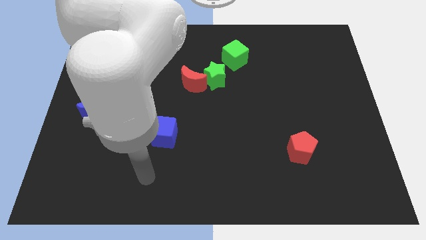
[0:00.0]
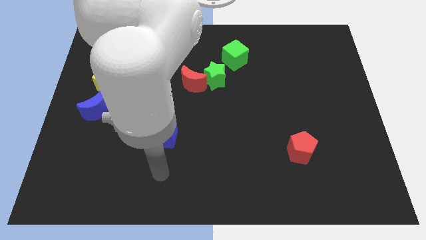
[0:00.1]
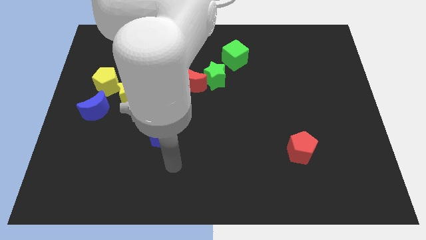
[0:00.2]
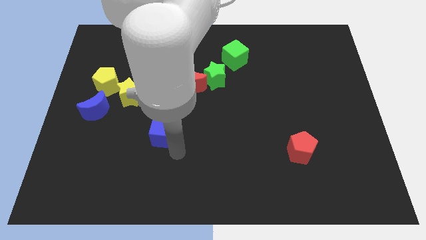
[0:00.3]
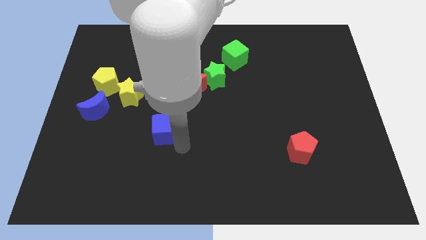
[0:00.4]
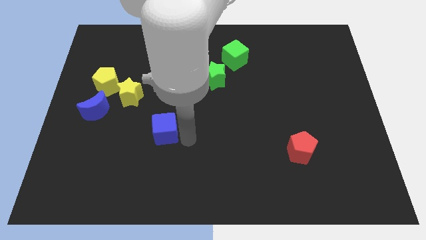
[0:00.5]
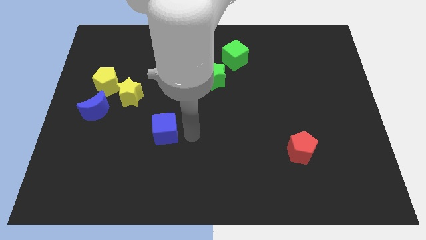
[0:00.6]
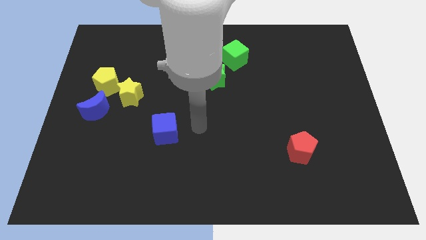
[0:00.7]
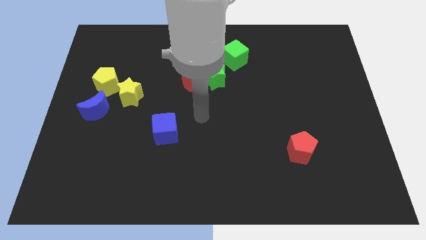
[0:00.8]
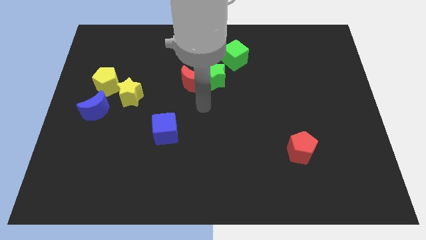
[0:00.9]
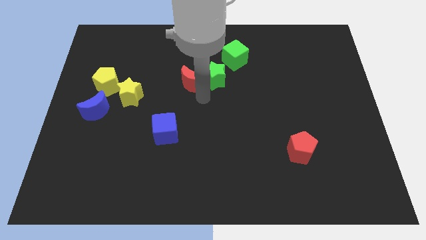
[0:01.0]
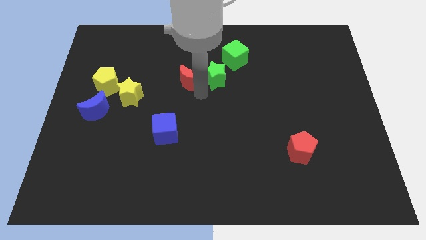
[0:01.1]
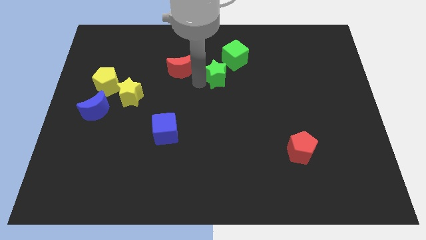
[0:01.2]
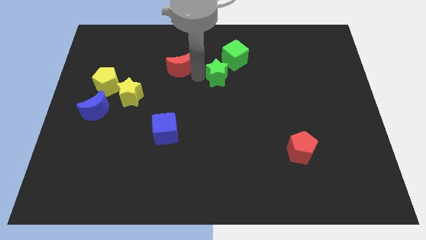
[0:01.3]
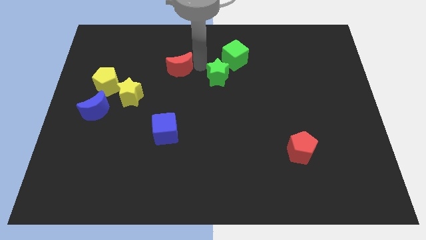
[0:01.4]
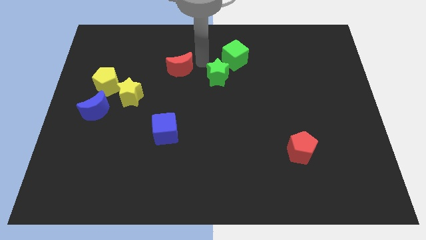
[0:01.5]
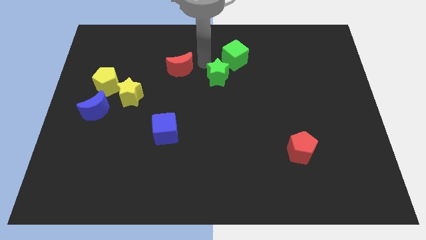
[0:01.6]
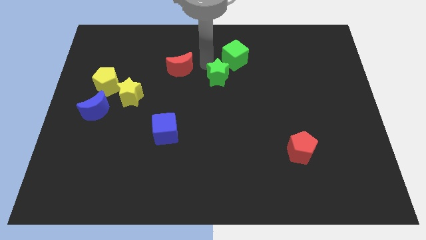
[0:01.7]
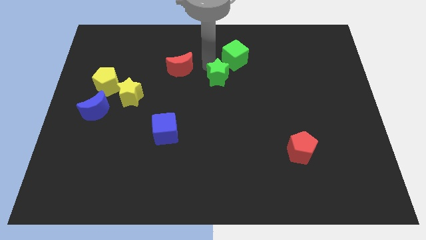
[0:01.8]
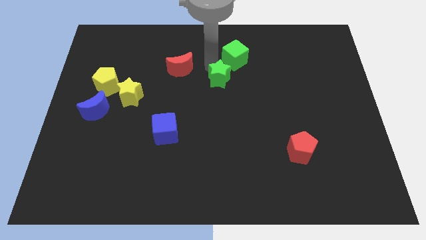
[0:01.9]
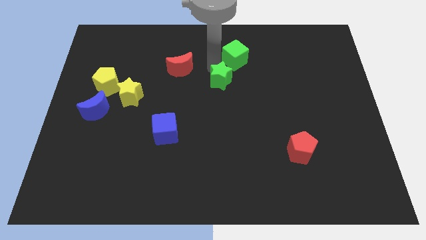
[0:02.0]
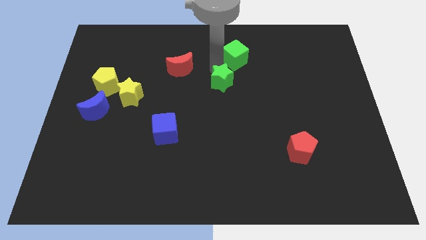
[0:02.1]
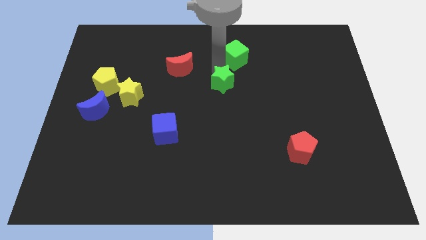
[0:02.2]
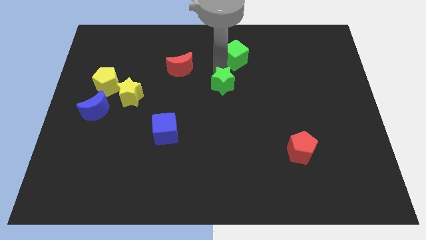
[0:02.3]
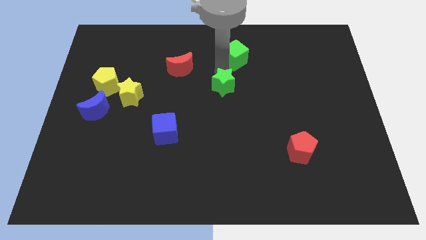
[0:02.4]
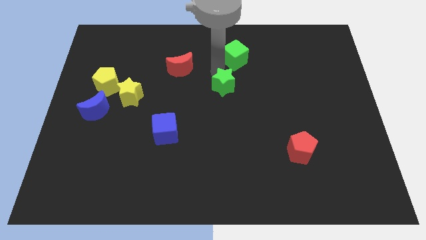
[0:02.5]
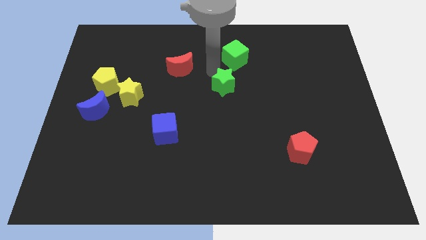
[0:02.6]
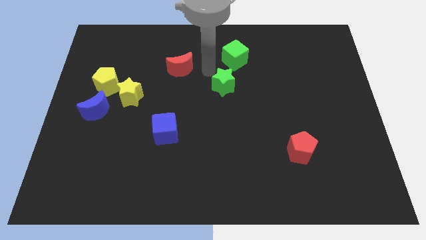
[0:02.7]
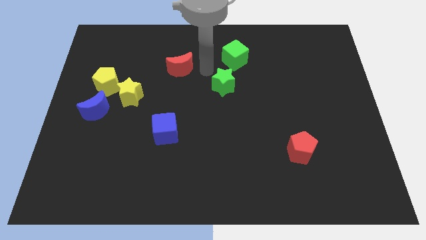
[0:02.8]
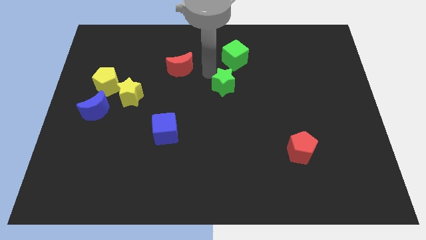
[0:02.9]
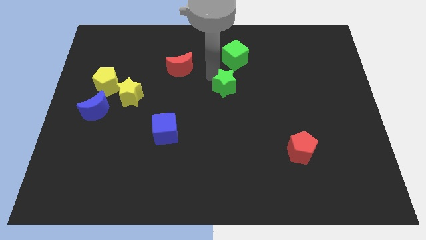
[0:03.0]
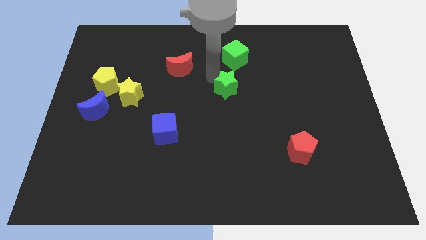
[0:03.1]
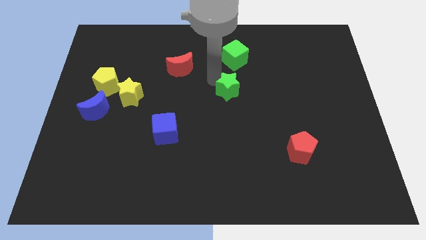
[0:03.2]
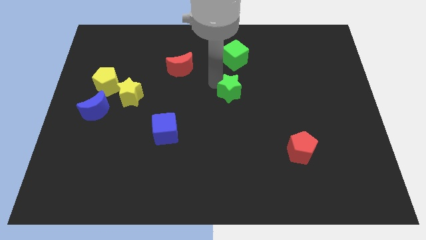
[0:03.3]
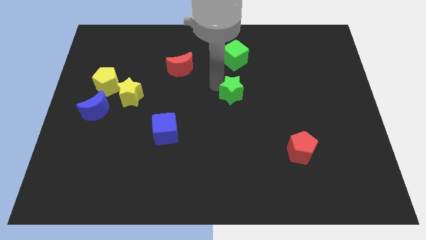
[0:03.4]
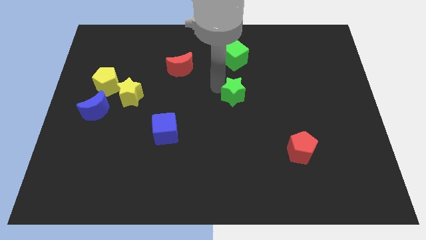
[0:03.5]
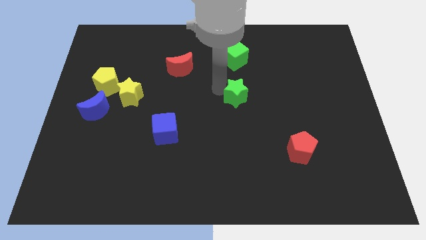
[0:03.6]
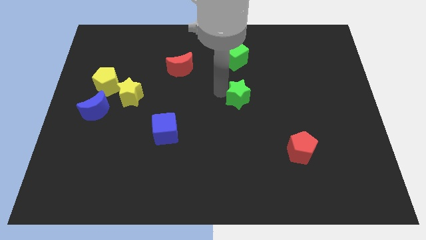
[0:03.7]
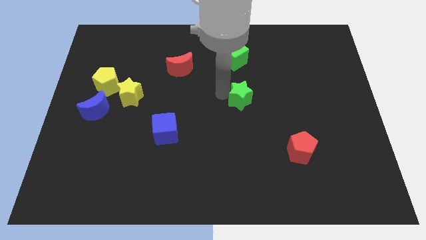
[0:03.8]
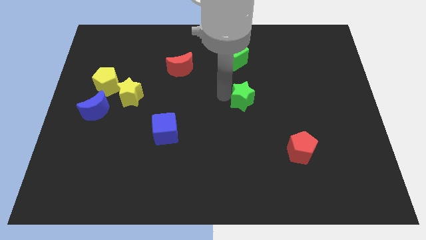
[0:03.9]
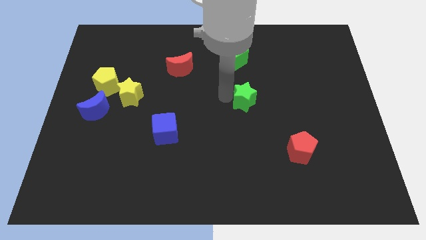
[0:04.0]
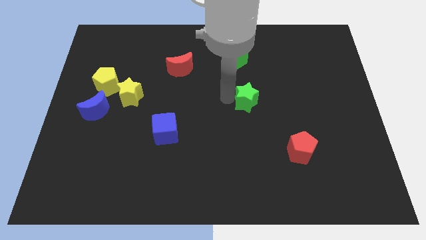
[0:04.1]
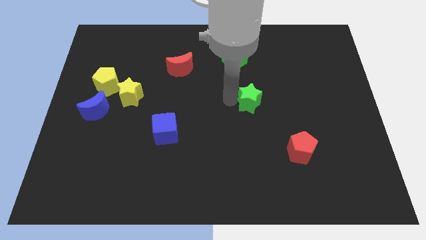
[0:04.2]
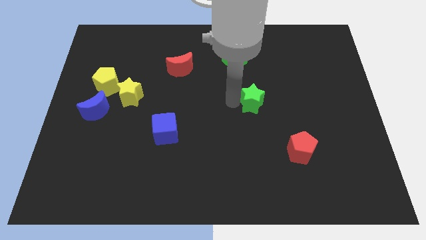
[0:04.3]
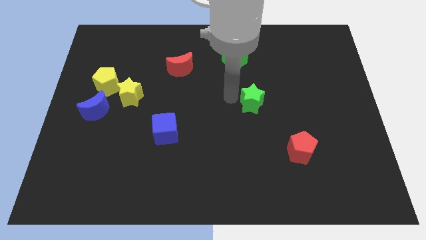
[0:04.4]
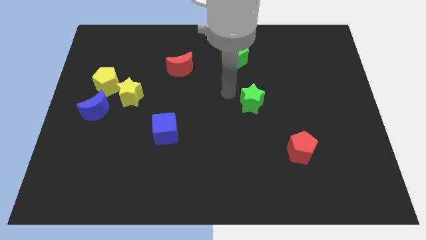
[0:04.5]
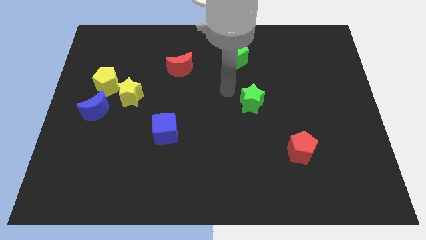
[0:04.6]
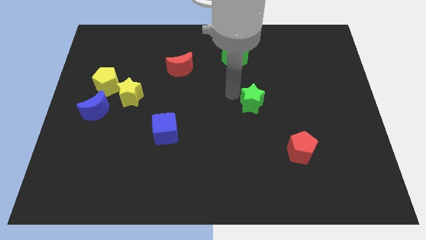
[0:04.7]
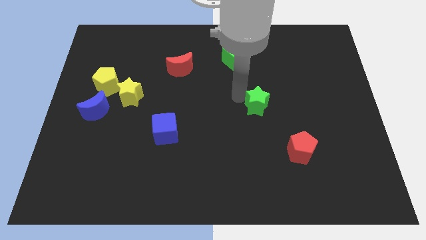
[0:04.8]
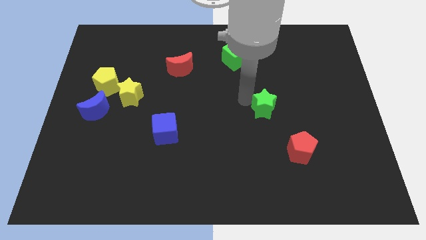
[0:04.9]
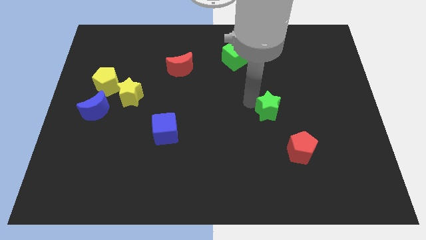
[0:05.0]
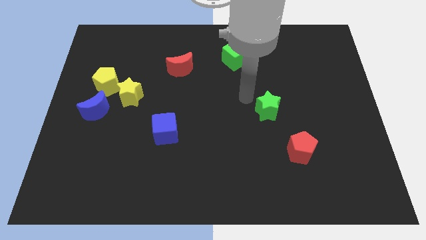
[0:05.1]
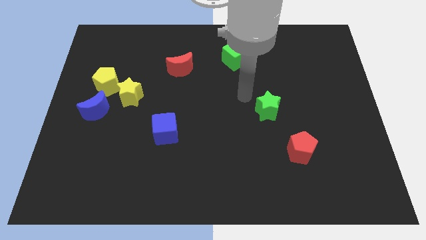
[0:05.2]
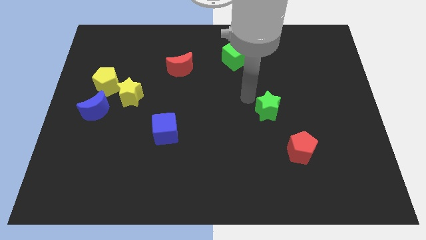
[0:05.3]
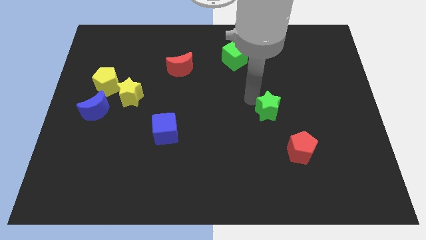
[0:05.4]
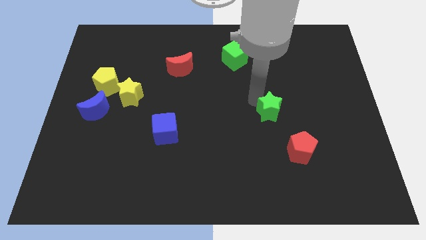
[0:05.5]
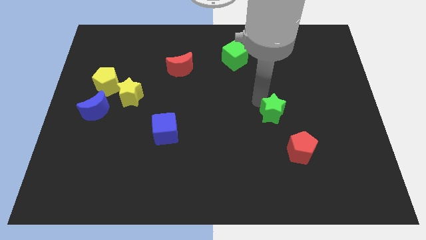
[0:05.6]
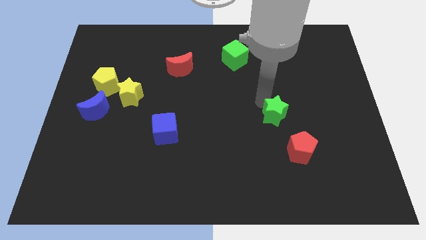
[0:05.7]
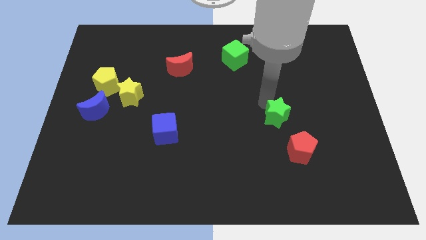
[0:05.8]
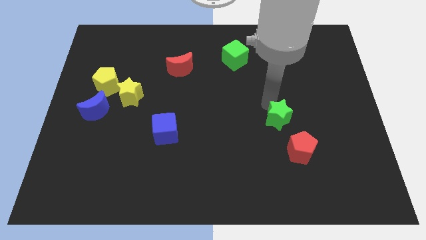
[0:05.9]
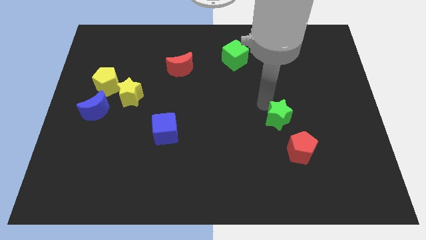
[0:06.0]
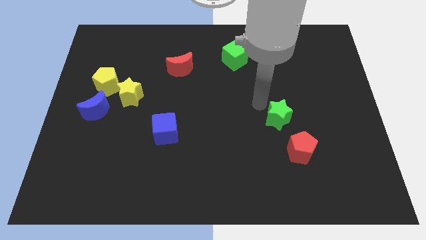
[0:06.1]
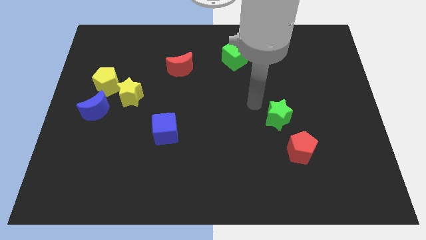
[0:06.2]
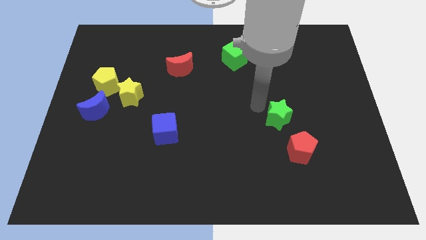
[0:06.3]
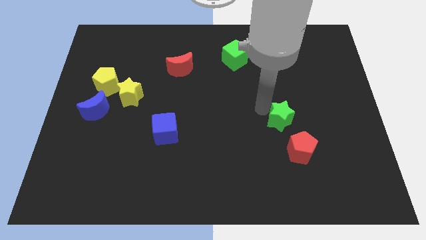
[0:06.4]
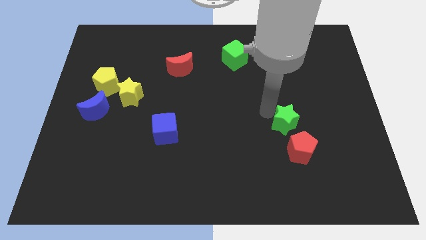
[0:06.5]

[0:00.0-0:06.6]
slide the green star diagonally down and right

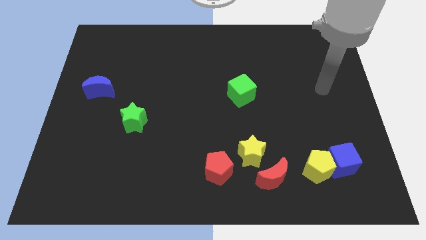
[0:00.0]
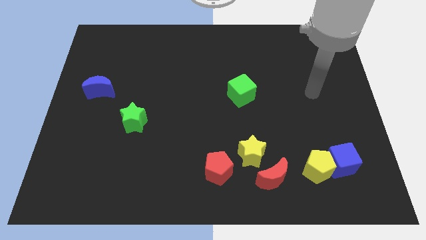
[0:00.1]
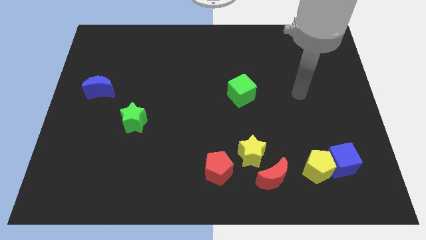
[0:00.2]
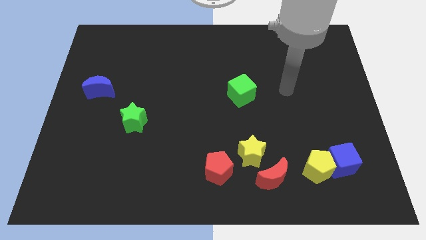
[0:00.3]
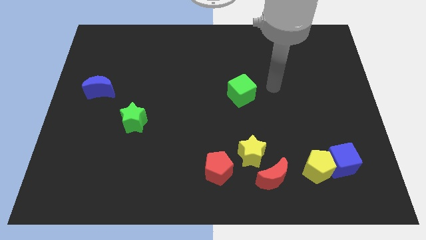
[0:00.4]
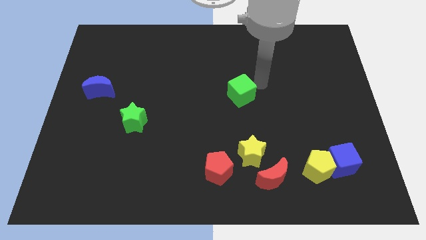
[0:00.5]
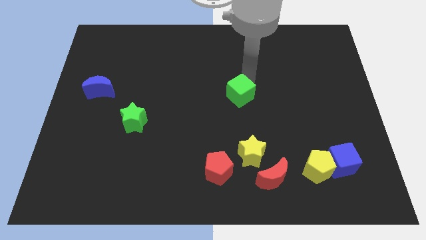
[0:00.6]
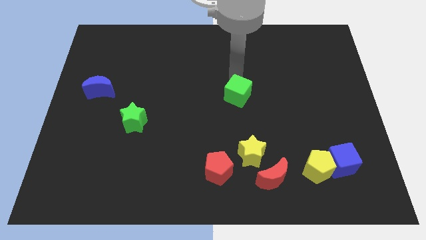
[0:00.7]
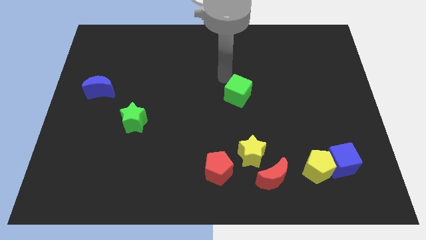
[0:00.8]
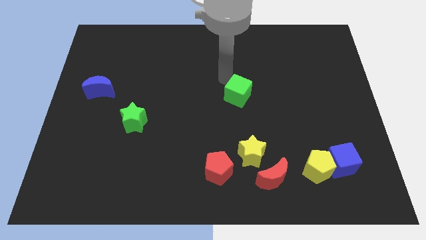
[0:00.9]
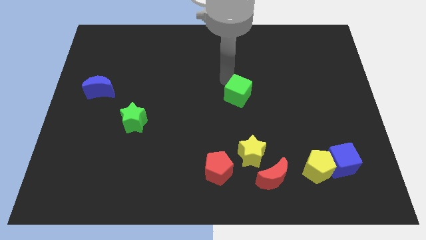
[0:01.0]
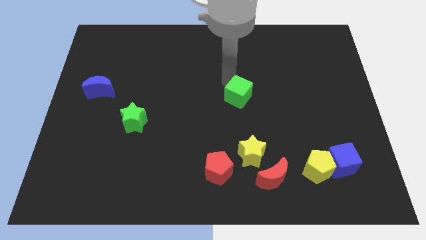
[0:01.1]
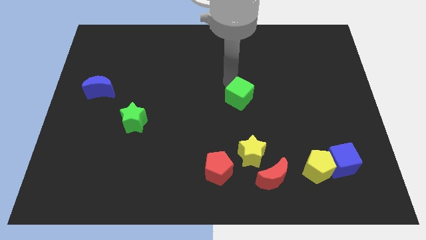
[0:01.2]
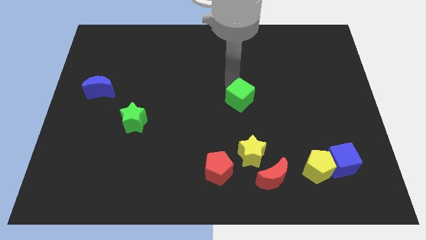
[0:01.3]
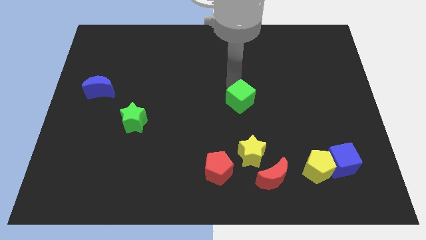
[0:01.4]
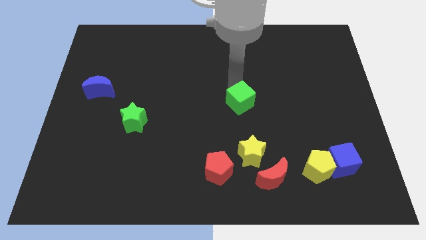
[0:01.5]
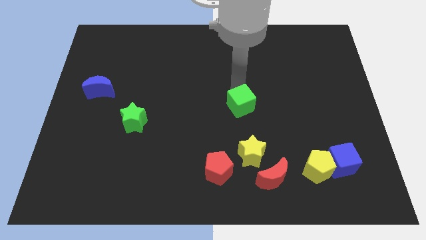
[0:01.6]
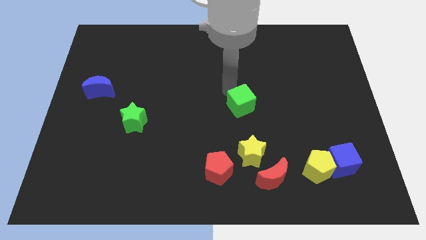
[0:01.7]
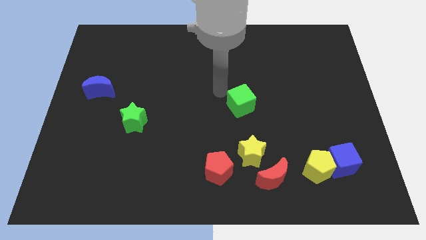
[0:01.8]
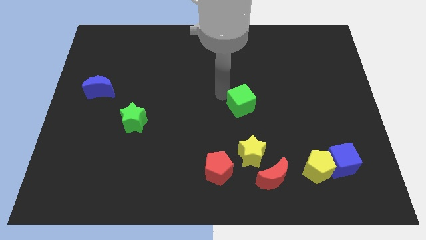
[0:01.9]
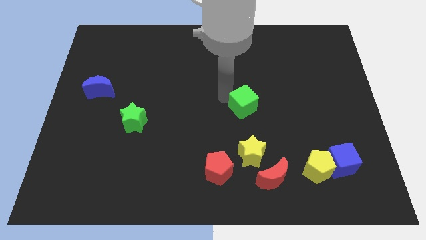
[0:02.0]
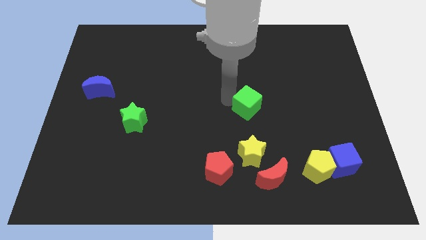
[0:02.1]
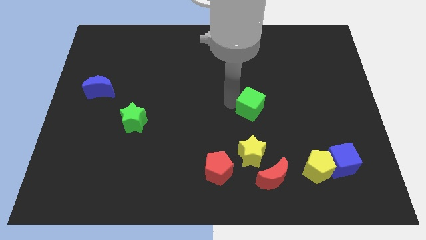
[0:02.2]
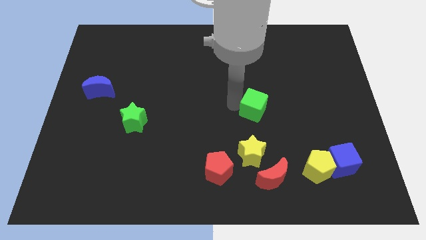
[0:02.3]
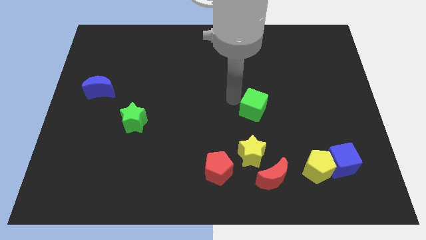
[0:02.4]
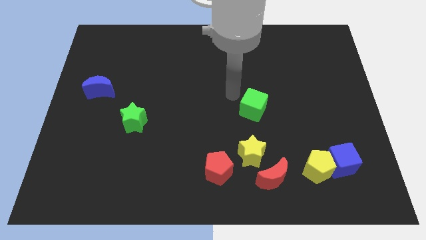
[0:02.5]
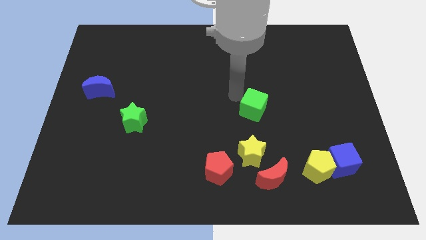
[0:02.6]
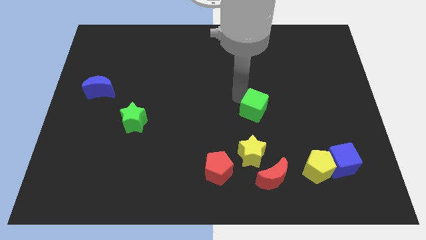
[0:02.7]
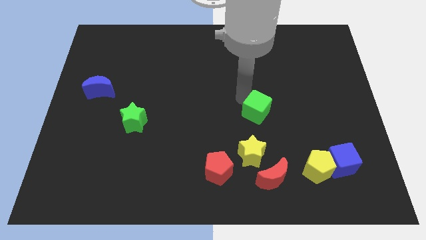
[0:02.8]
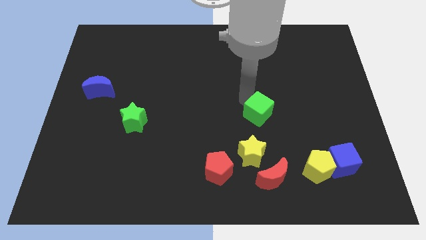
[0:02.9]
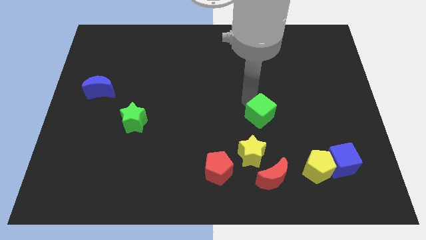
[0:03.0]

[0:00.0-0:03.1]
slide the green cube diagonally downwards and right a little
